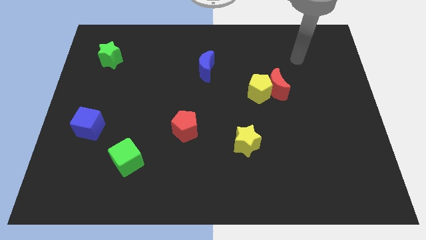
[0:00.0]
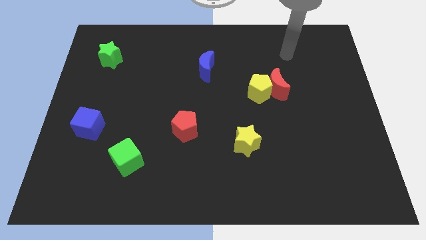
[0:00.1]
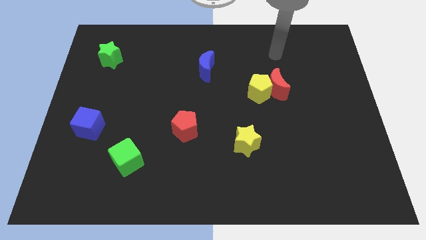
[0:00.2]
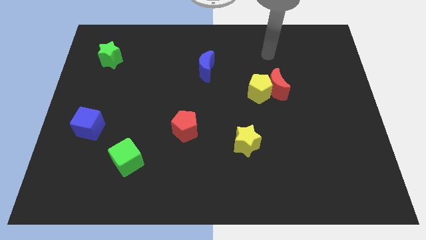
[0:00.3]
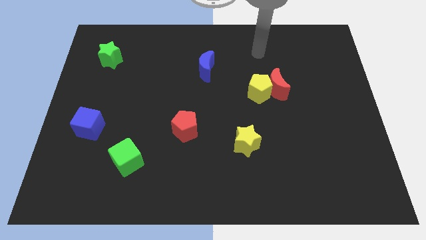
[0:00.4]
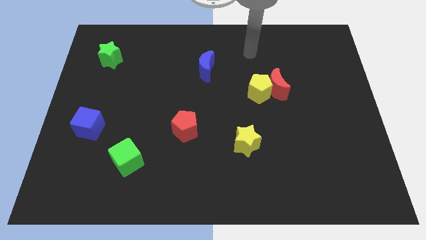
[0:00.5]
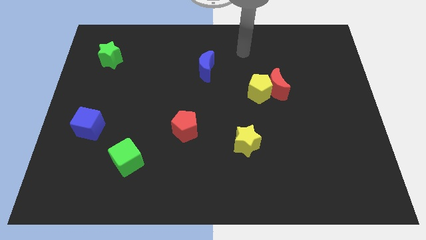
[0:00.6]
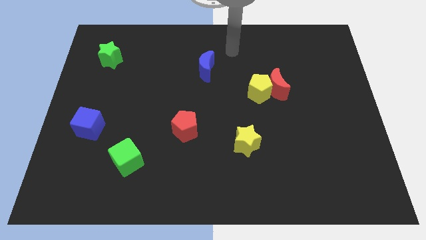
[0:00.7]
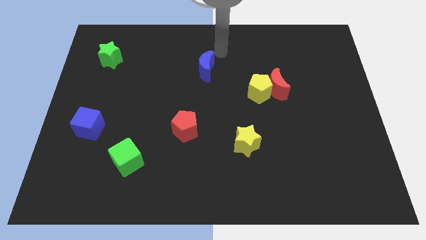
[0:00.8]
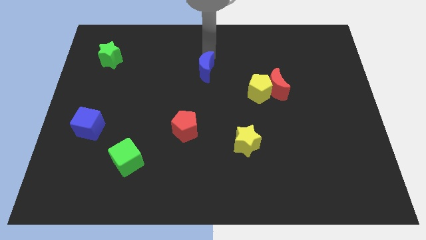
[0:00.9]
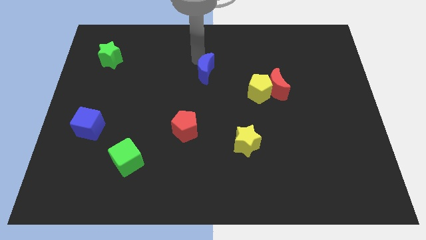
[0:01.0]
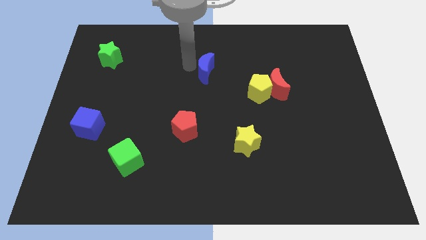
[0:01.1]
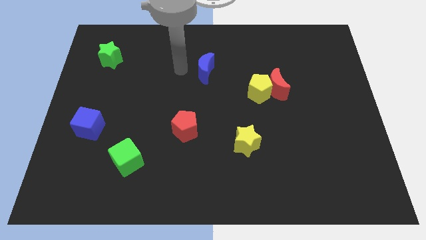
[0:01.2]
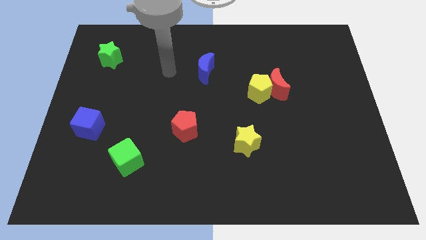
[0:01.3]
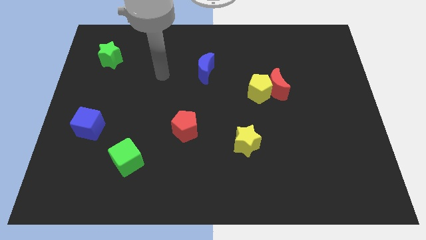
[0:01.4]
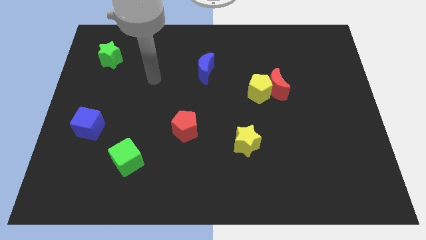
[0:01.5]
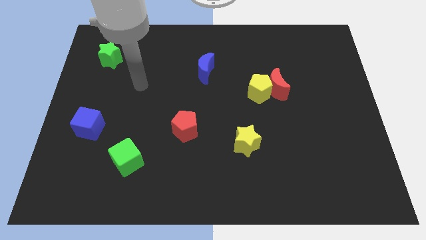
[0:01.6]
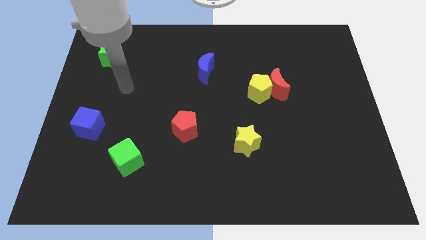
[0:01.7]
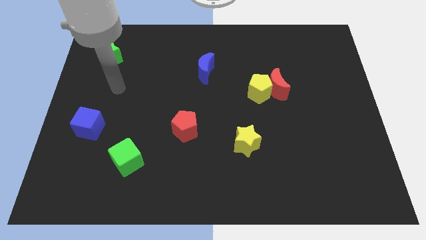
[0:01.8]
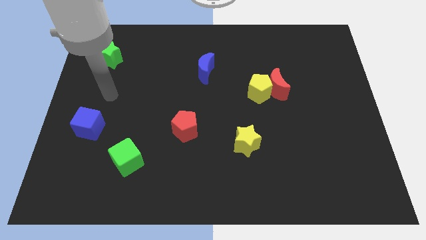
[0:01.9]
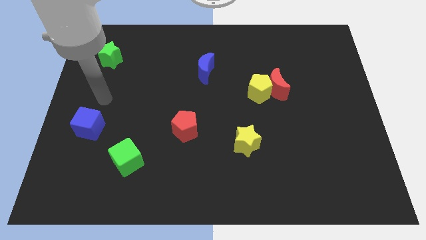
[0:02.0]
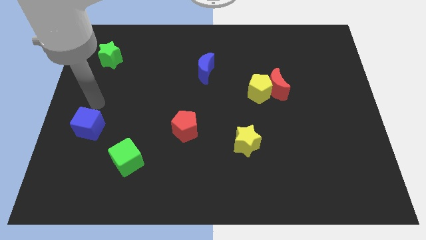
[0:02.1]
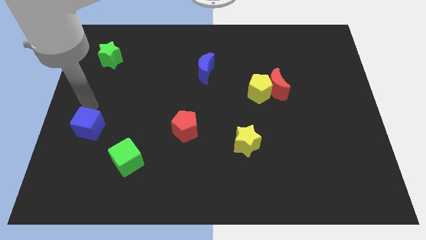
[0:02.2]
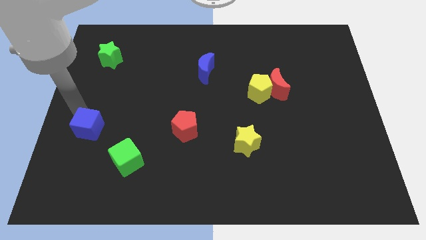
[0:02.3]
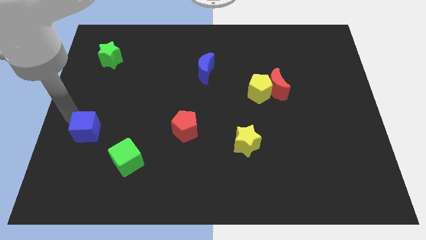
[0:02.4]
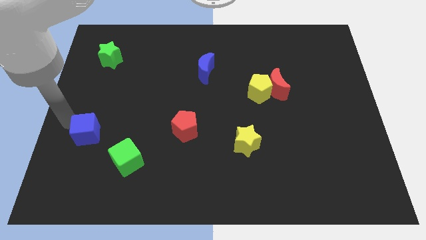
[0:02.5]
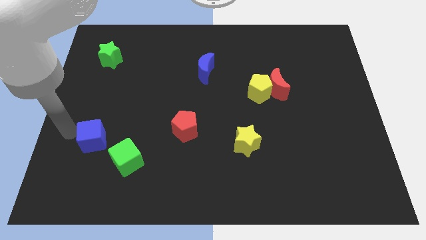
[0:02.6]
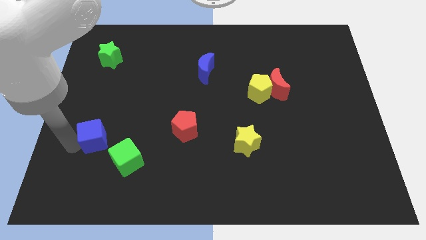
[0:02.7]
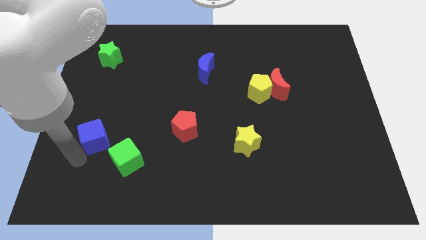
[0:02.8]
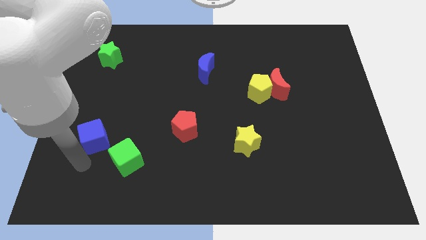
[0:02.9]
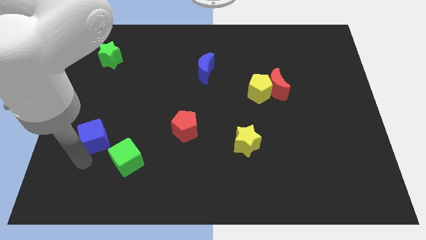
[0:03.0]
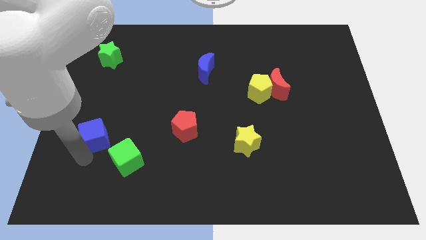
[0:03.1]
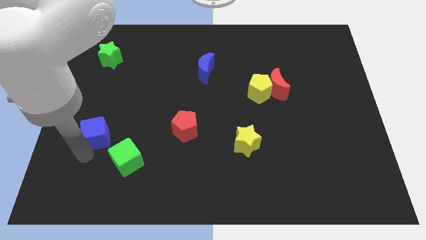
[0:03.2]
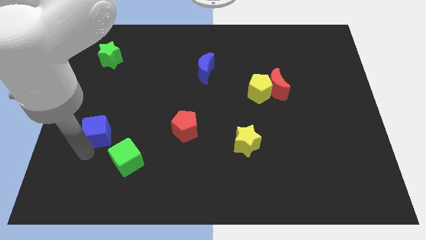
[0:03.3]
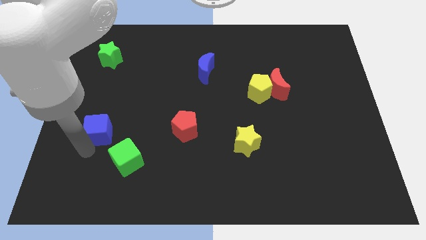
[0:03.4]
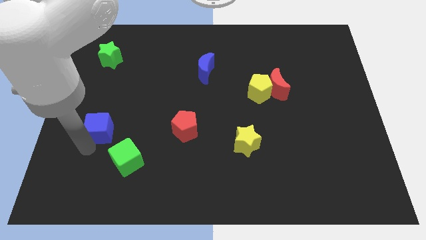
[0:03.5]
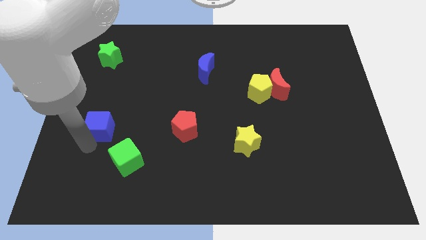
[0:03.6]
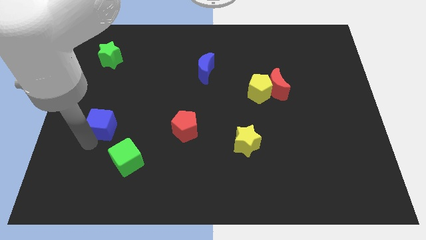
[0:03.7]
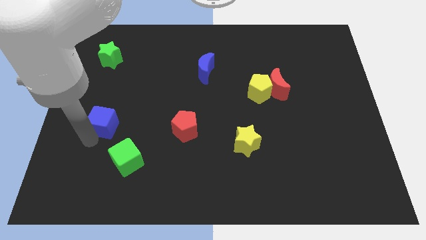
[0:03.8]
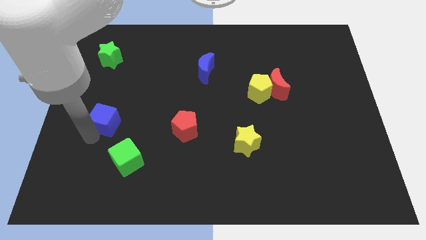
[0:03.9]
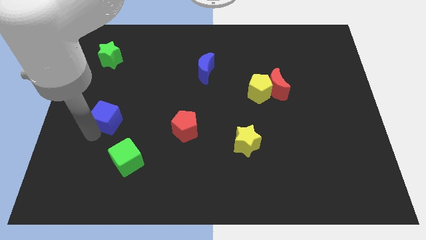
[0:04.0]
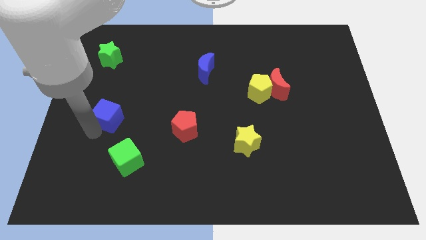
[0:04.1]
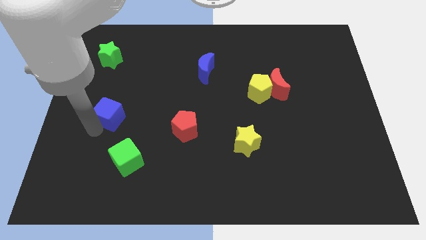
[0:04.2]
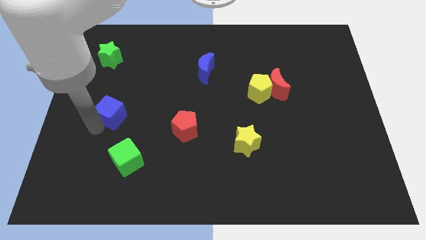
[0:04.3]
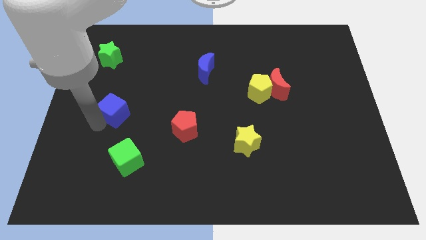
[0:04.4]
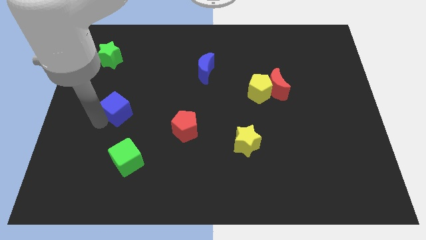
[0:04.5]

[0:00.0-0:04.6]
push the blue cube a little bit diagonally up and right

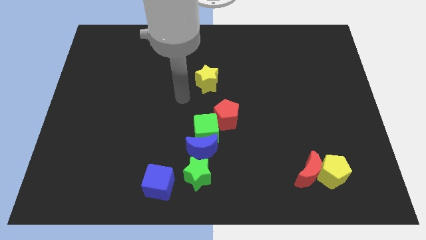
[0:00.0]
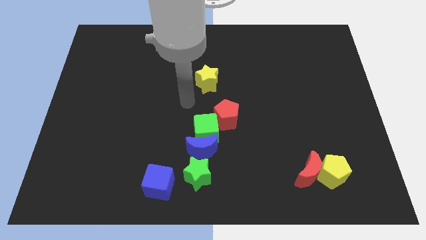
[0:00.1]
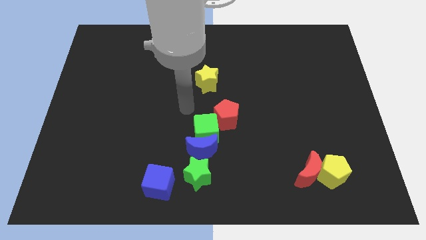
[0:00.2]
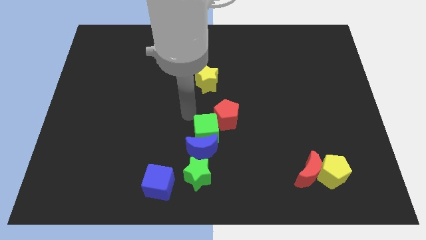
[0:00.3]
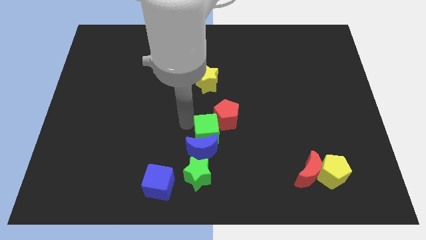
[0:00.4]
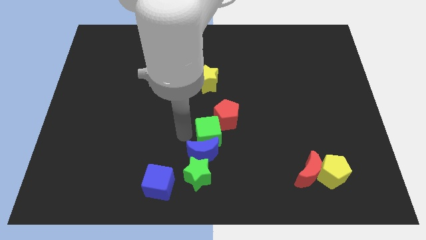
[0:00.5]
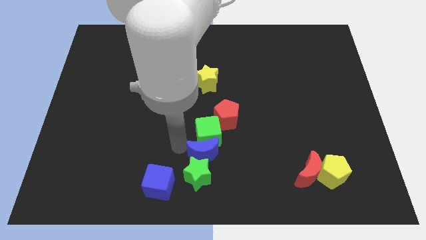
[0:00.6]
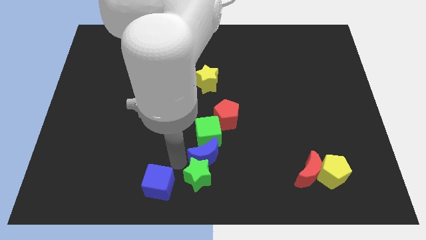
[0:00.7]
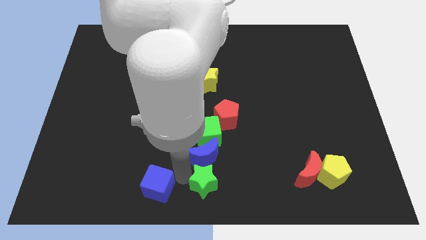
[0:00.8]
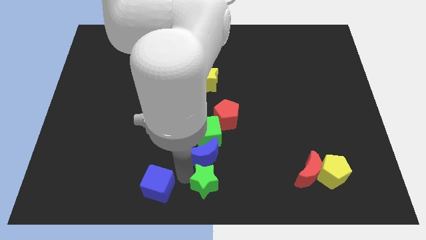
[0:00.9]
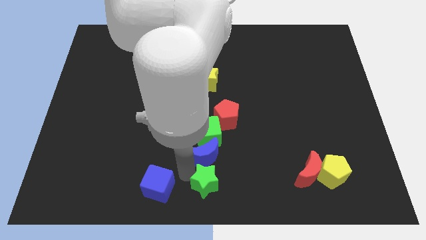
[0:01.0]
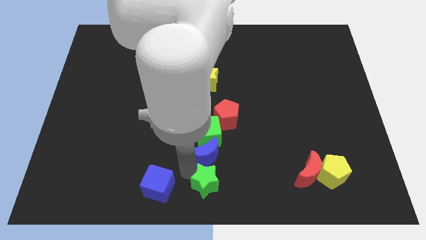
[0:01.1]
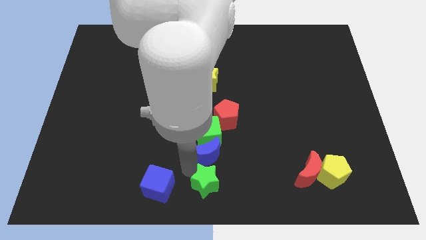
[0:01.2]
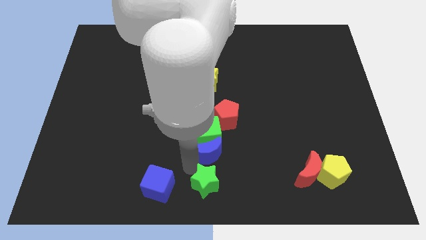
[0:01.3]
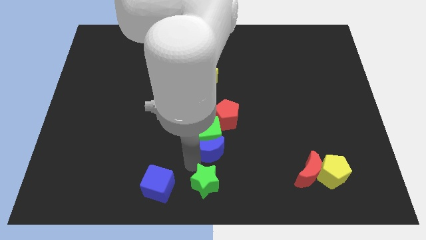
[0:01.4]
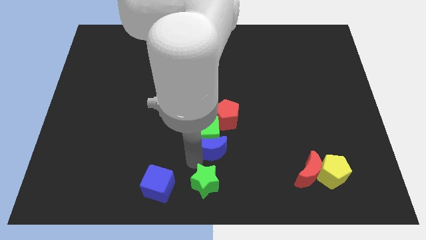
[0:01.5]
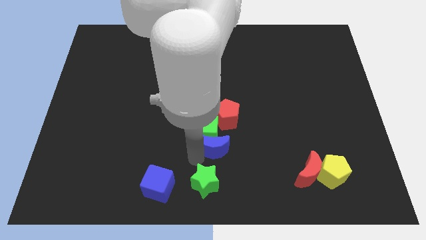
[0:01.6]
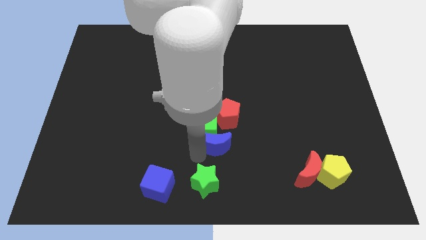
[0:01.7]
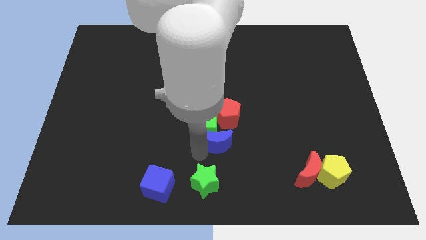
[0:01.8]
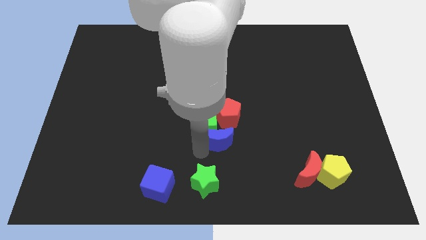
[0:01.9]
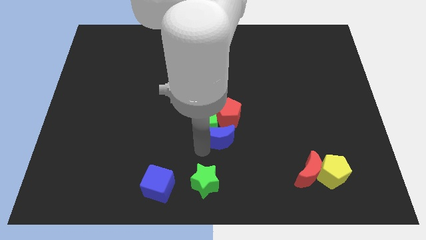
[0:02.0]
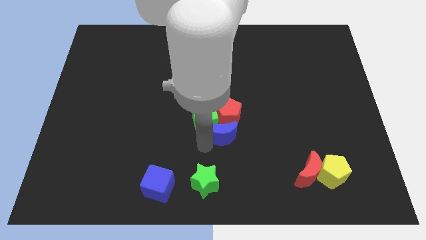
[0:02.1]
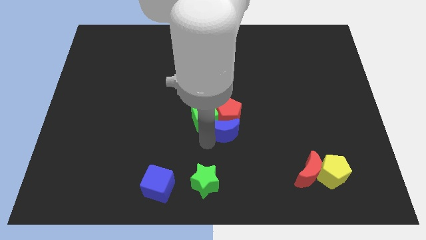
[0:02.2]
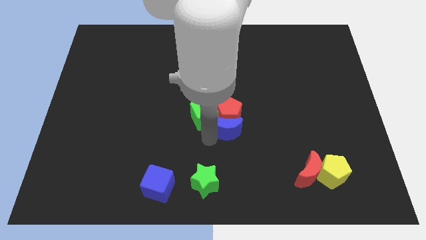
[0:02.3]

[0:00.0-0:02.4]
move the blue moon diagonally up and to the right somewhat

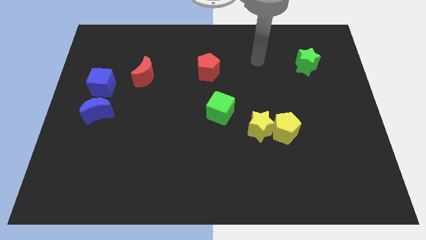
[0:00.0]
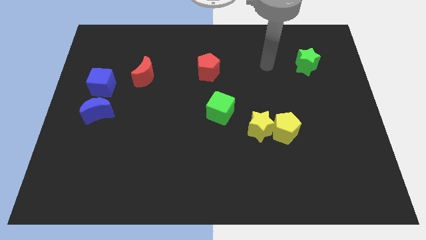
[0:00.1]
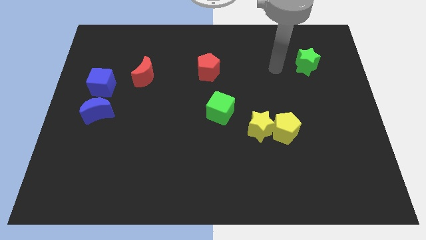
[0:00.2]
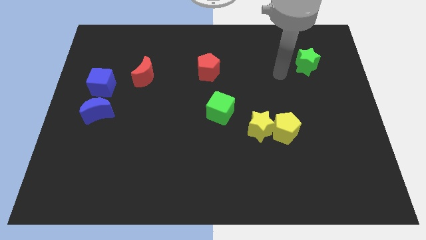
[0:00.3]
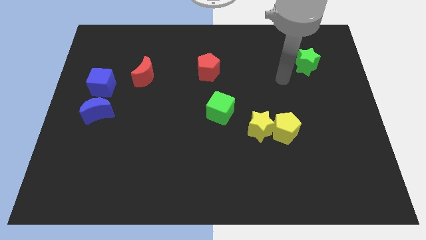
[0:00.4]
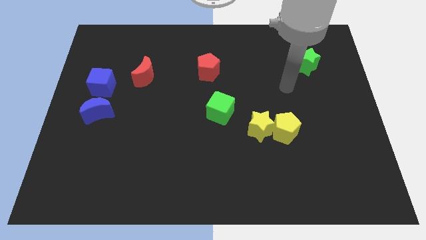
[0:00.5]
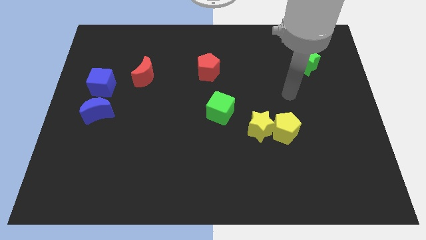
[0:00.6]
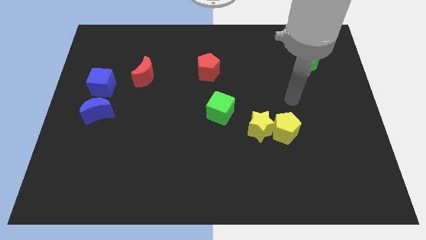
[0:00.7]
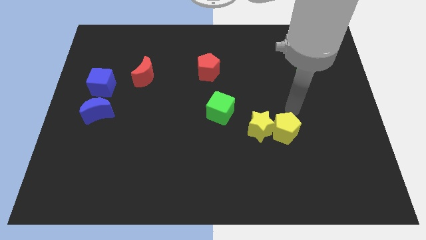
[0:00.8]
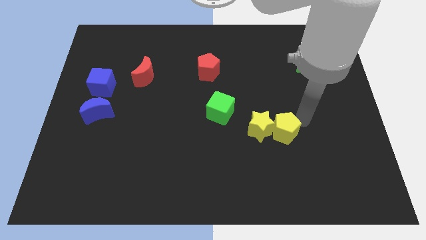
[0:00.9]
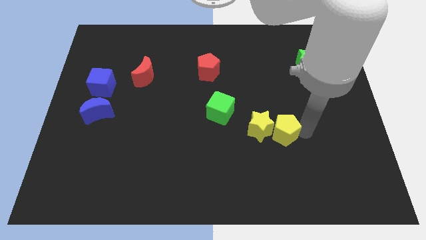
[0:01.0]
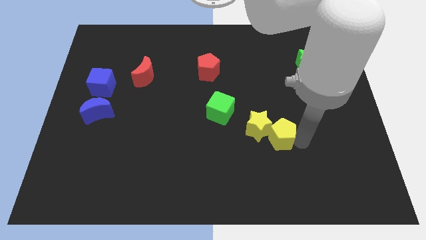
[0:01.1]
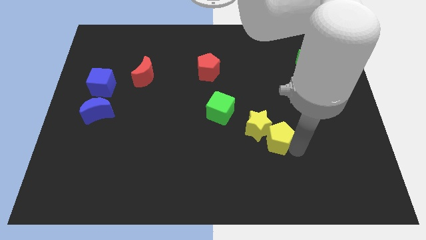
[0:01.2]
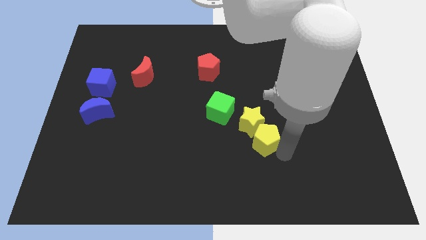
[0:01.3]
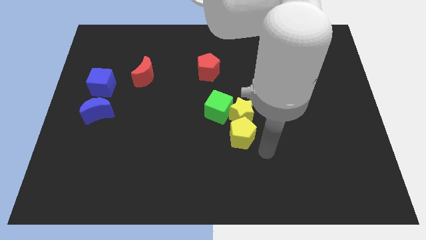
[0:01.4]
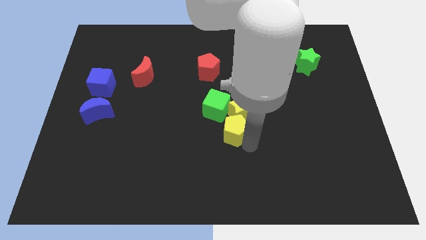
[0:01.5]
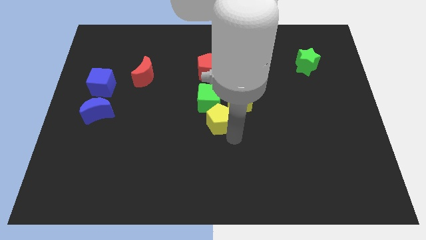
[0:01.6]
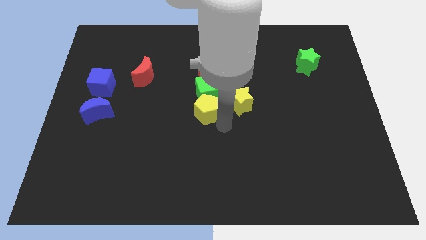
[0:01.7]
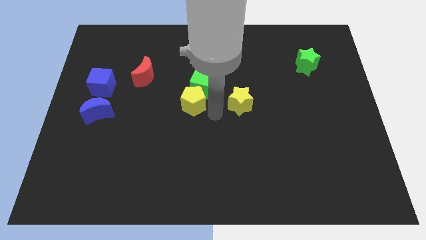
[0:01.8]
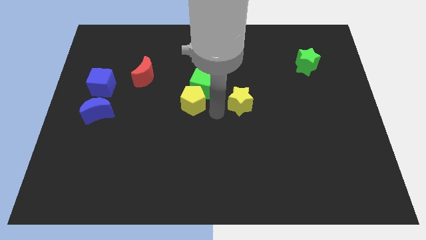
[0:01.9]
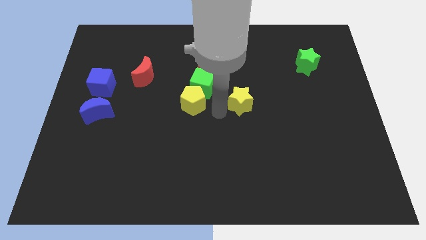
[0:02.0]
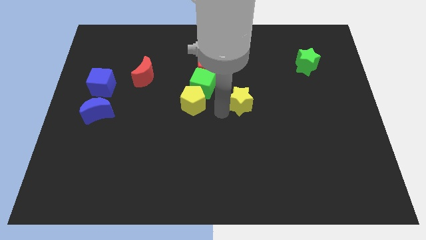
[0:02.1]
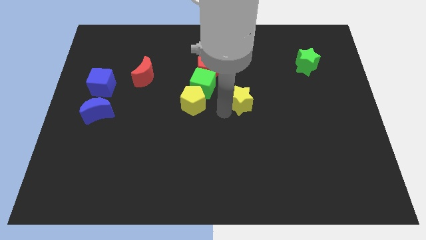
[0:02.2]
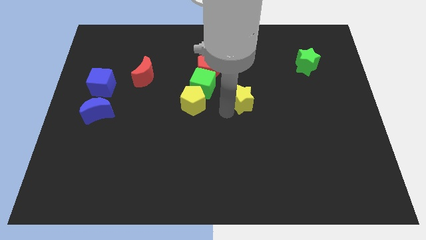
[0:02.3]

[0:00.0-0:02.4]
slightly move the yellow star up
